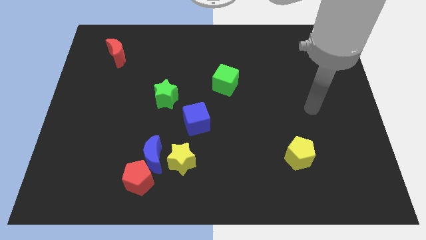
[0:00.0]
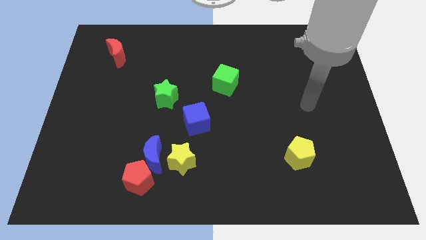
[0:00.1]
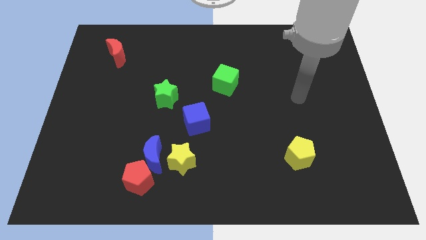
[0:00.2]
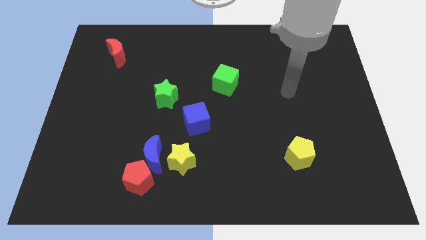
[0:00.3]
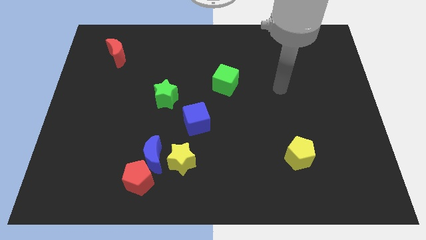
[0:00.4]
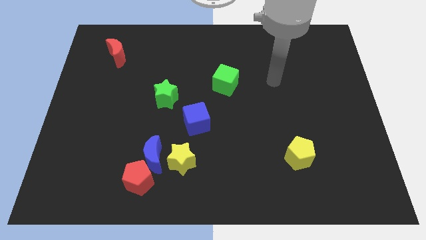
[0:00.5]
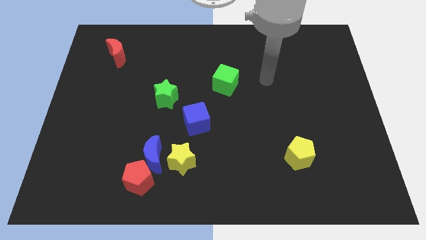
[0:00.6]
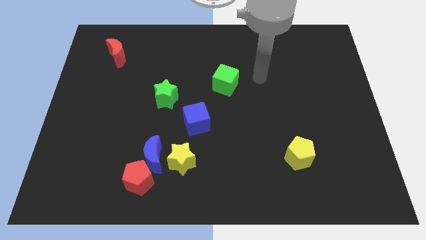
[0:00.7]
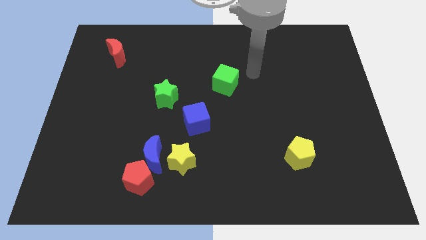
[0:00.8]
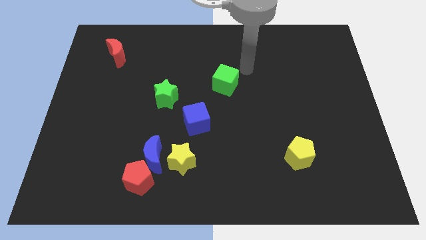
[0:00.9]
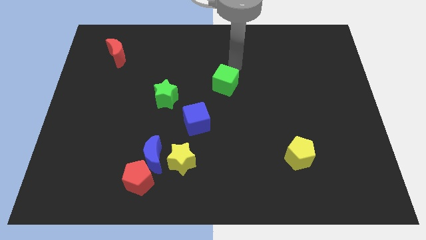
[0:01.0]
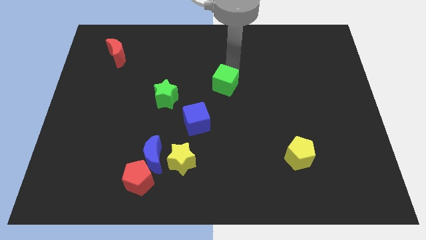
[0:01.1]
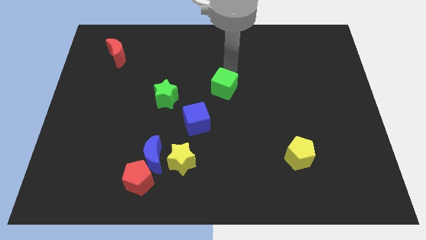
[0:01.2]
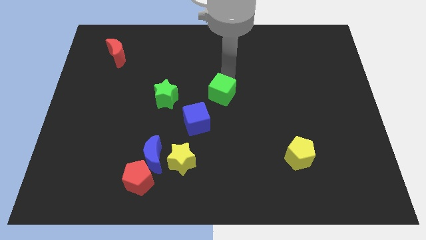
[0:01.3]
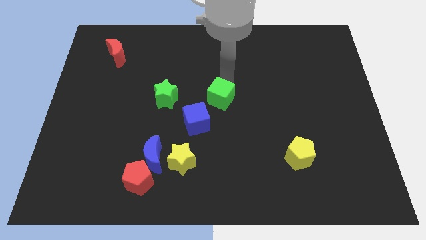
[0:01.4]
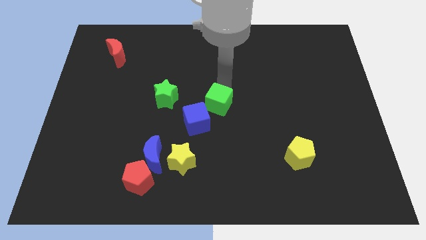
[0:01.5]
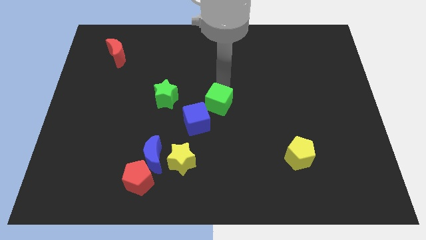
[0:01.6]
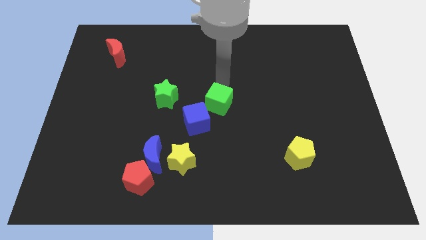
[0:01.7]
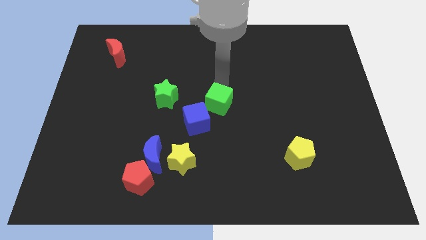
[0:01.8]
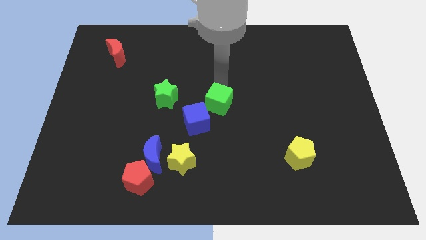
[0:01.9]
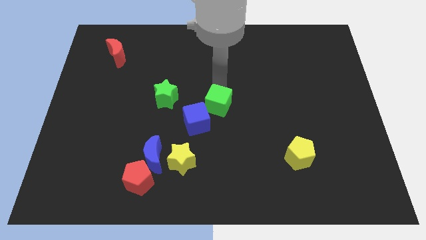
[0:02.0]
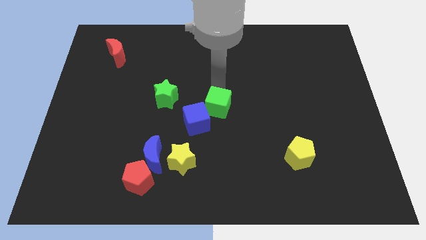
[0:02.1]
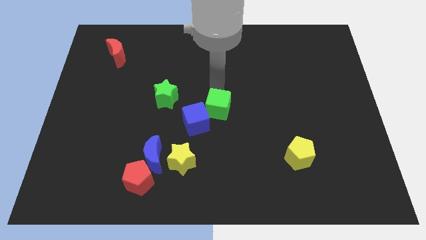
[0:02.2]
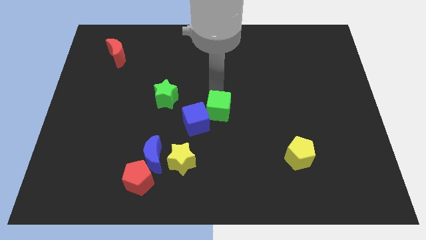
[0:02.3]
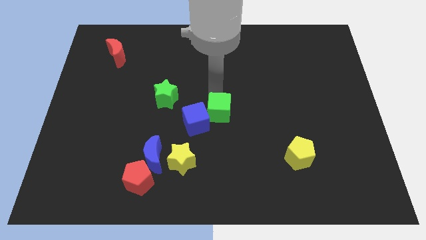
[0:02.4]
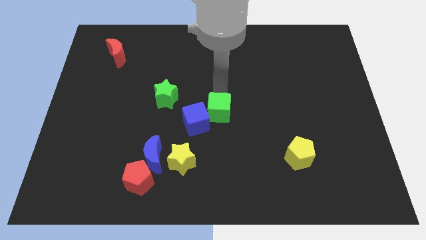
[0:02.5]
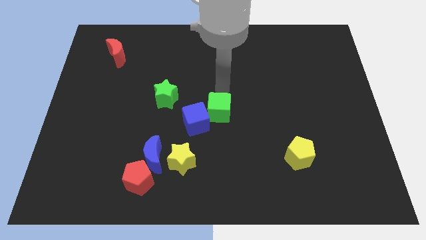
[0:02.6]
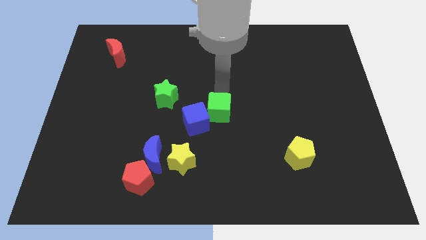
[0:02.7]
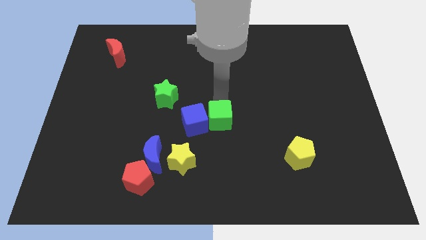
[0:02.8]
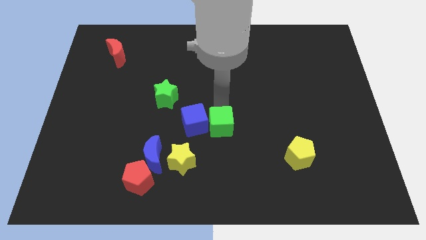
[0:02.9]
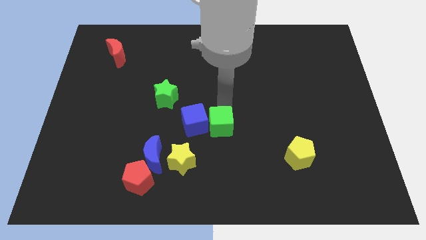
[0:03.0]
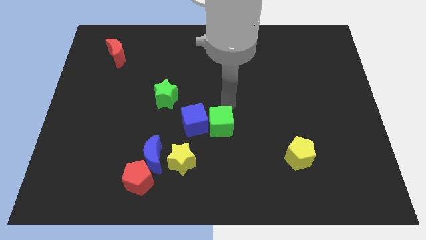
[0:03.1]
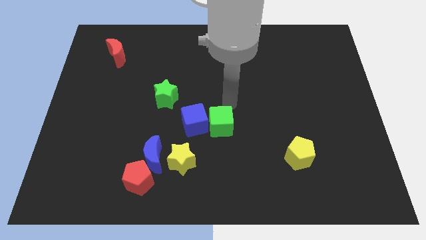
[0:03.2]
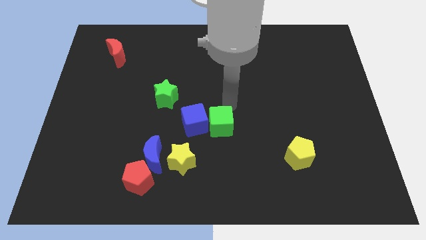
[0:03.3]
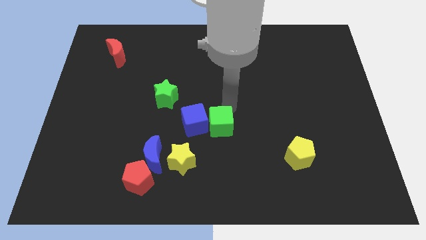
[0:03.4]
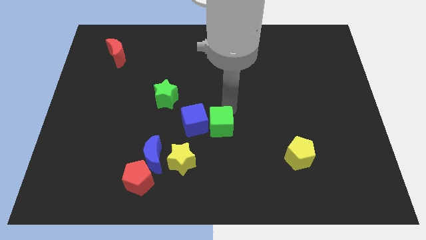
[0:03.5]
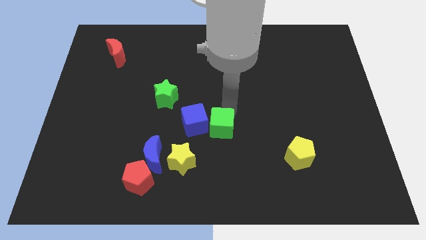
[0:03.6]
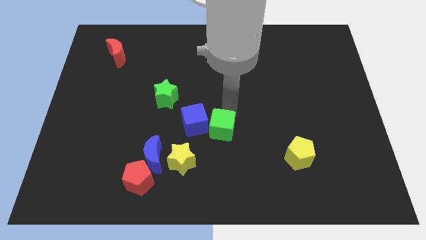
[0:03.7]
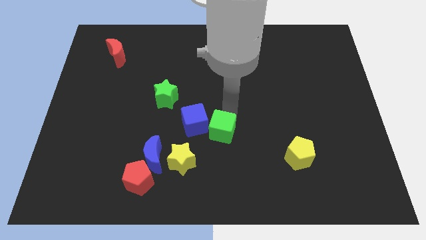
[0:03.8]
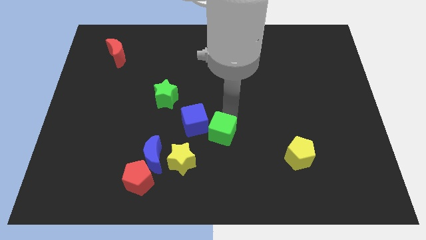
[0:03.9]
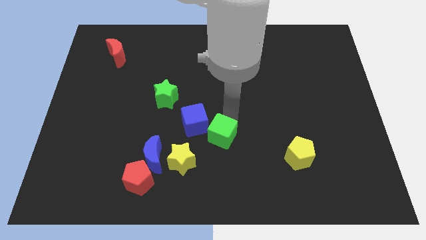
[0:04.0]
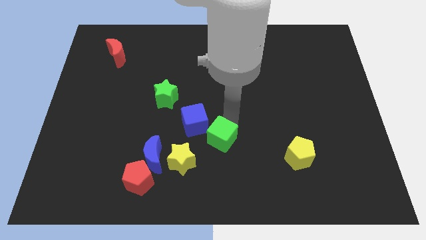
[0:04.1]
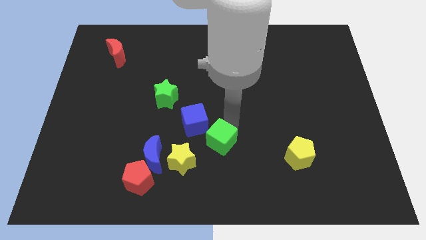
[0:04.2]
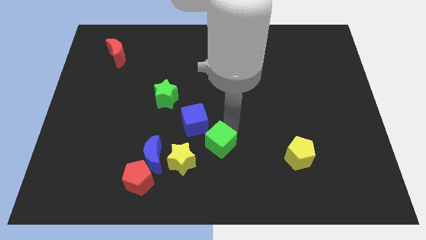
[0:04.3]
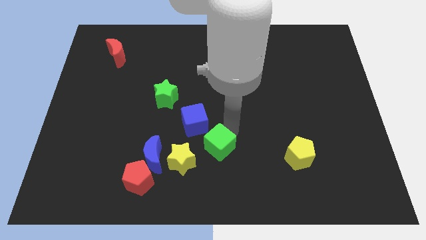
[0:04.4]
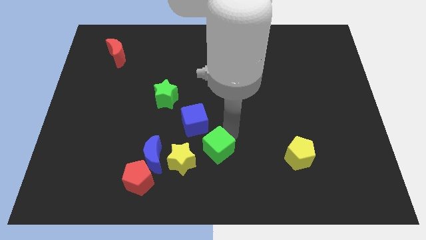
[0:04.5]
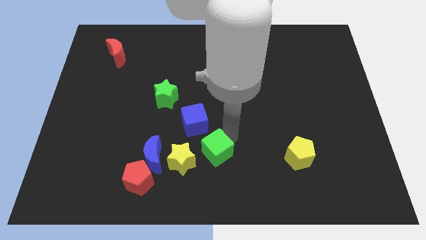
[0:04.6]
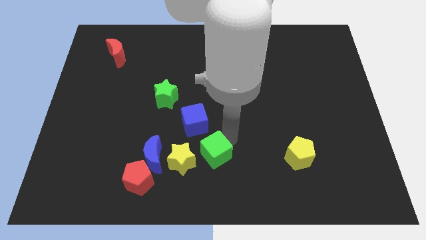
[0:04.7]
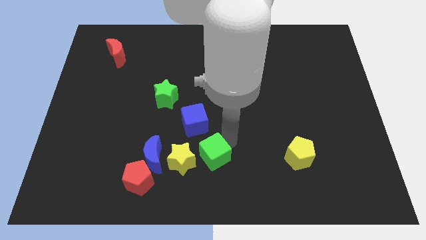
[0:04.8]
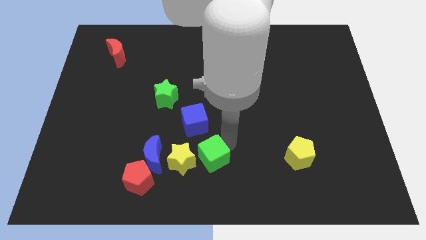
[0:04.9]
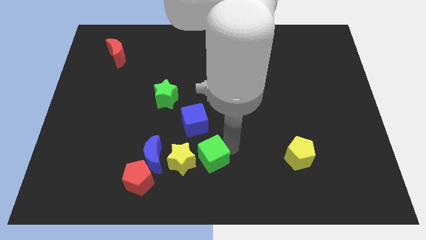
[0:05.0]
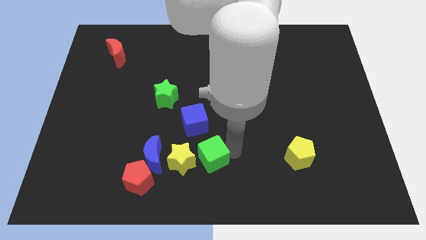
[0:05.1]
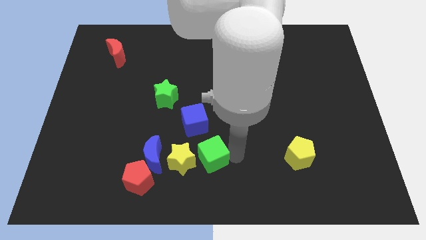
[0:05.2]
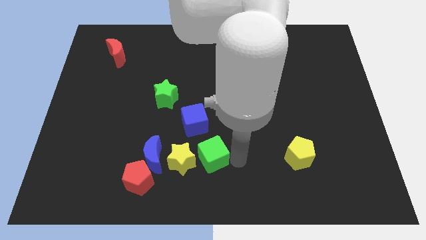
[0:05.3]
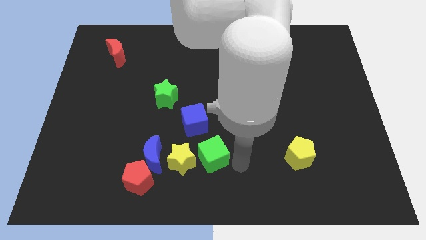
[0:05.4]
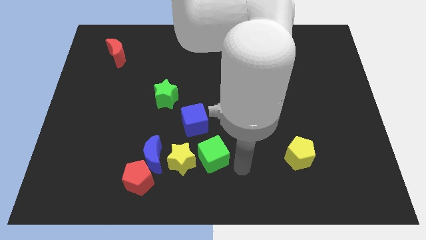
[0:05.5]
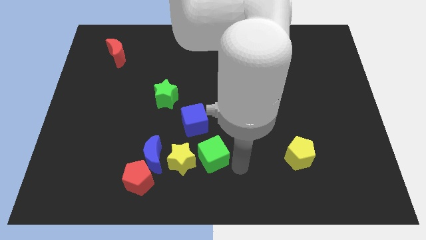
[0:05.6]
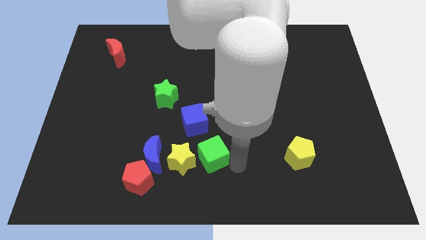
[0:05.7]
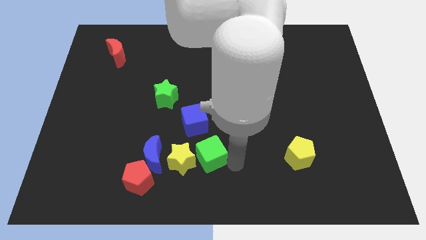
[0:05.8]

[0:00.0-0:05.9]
slide the green cube next to the yellow star
